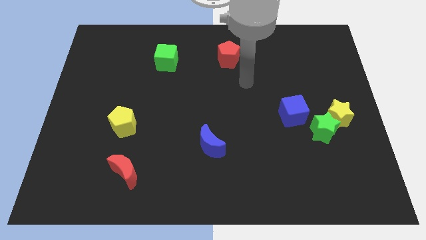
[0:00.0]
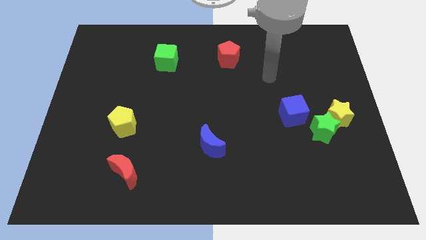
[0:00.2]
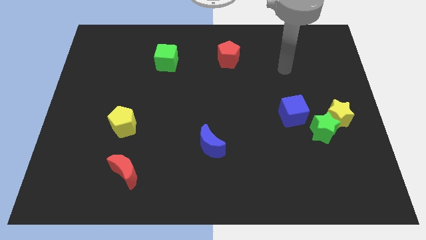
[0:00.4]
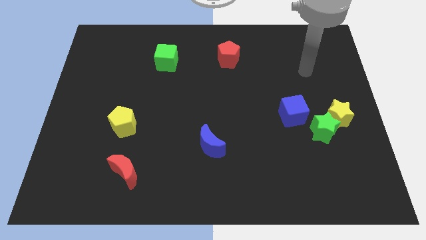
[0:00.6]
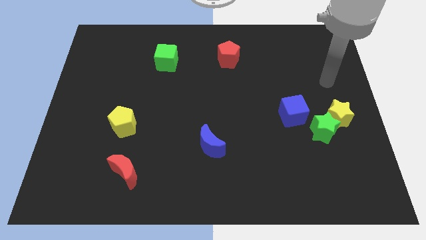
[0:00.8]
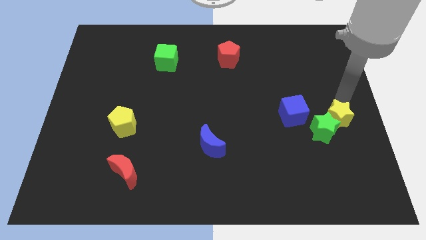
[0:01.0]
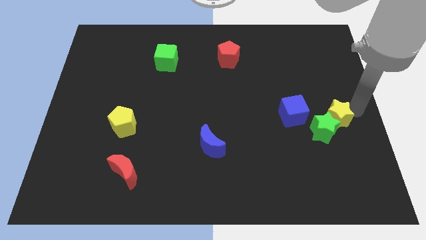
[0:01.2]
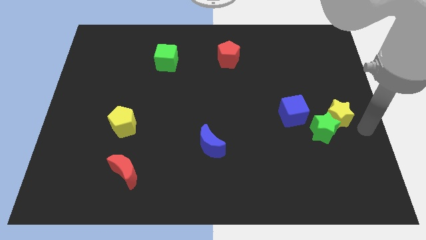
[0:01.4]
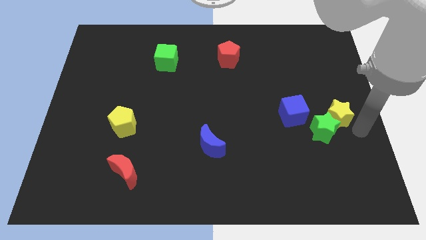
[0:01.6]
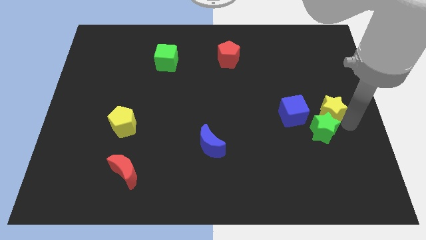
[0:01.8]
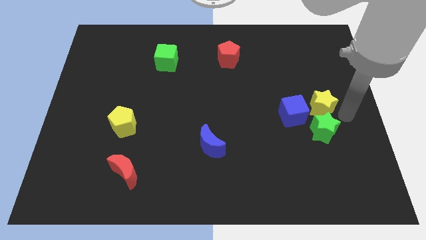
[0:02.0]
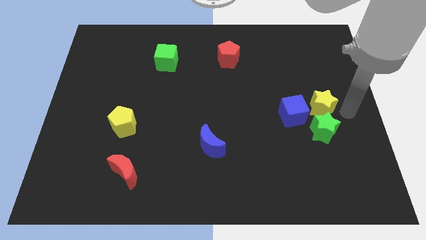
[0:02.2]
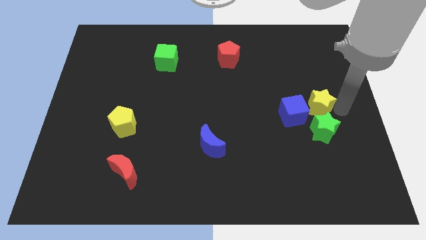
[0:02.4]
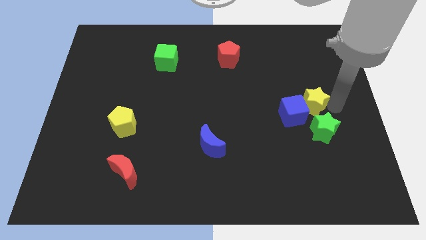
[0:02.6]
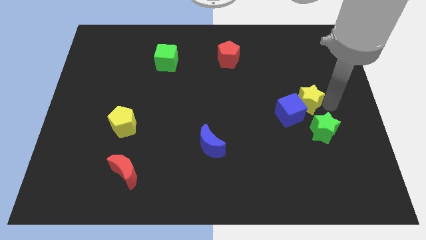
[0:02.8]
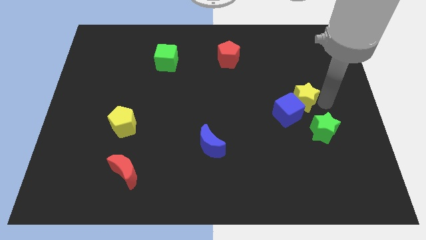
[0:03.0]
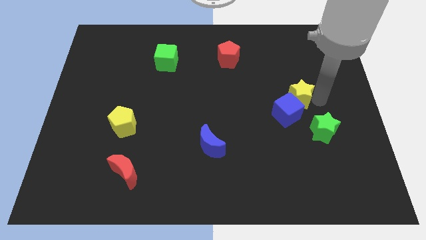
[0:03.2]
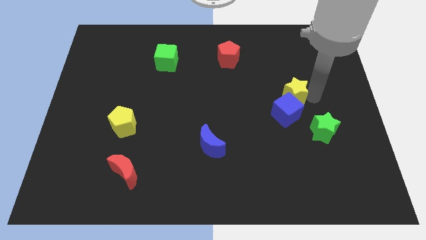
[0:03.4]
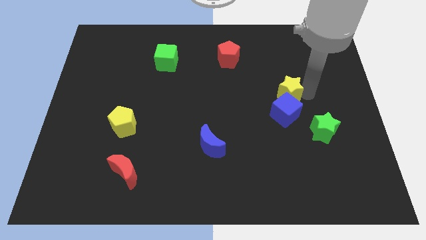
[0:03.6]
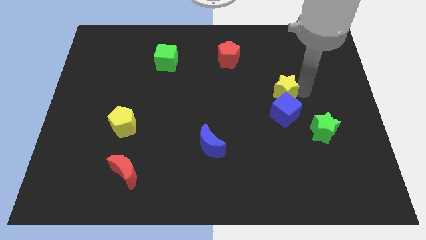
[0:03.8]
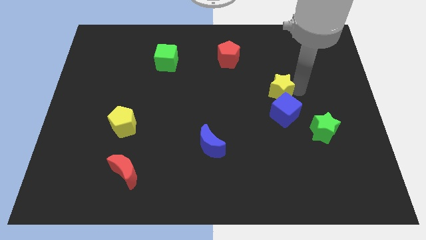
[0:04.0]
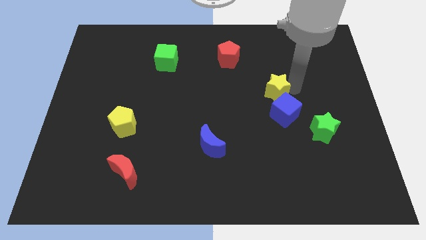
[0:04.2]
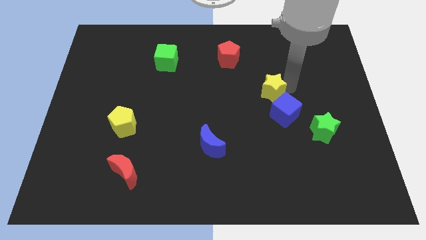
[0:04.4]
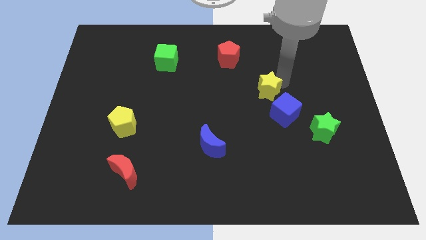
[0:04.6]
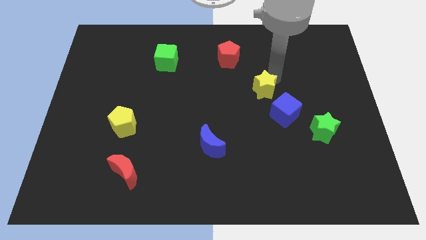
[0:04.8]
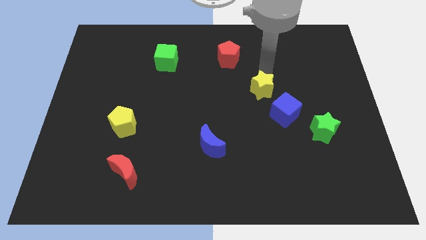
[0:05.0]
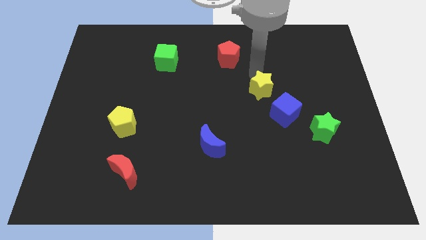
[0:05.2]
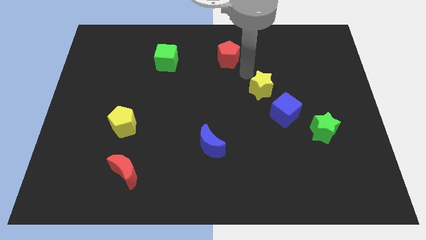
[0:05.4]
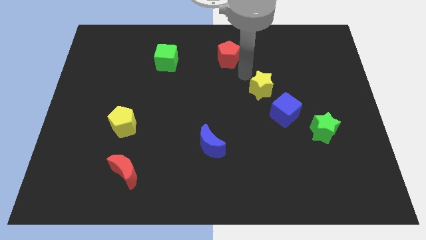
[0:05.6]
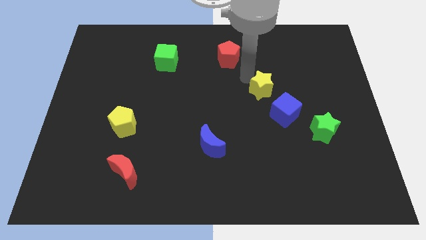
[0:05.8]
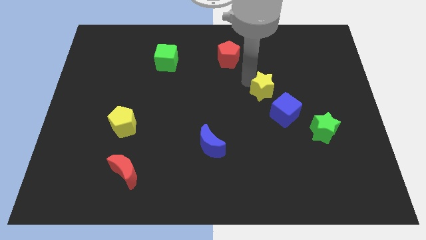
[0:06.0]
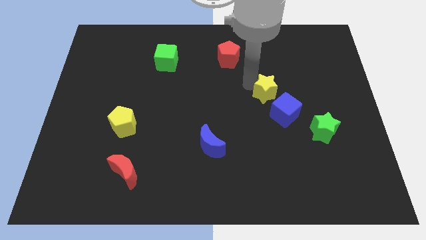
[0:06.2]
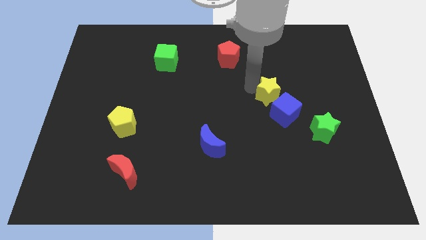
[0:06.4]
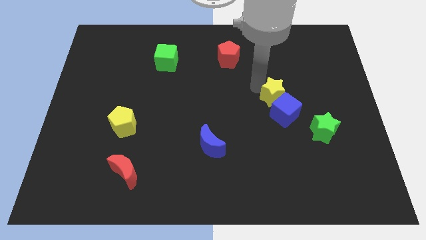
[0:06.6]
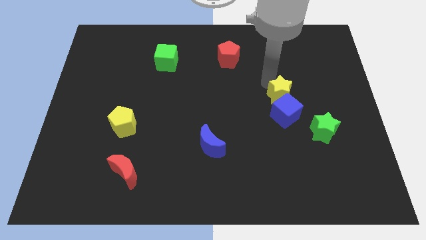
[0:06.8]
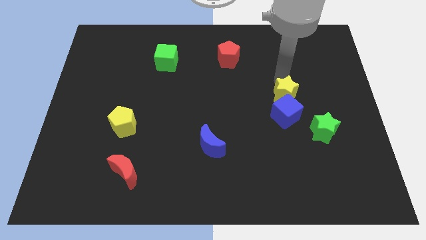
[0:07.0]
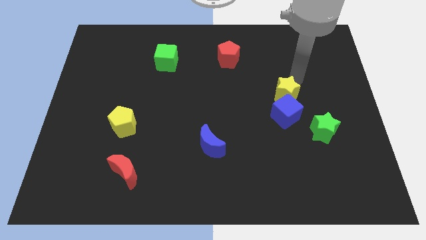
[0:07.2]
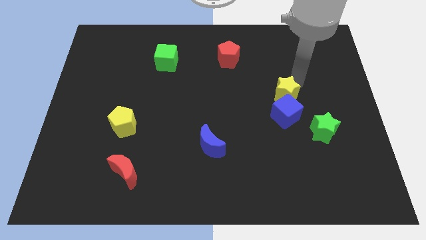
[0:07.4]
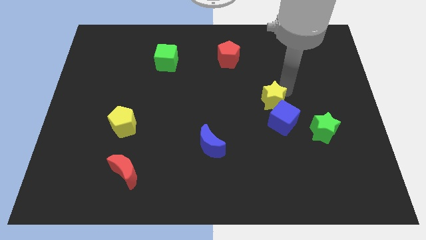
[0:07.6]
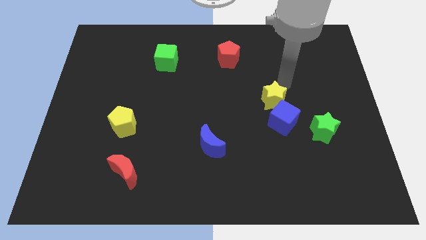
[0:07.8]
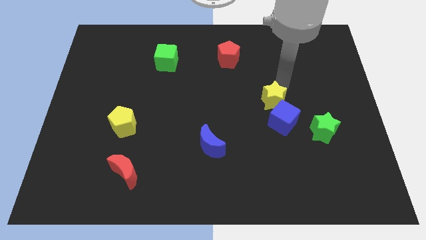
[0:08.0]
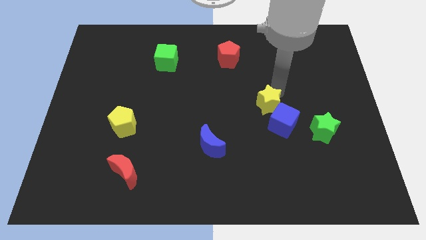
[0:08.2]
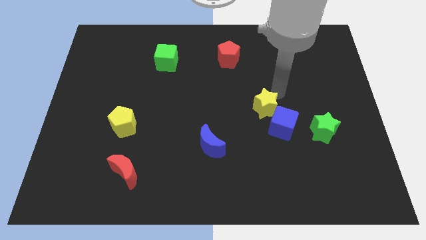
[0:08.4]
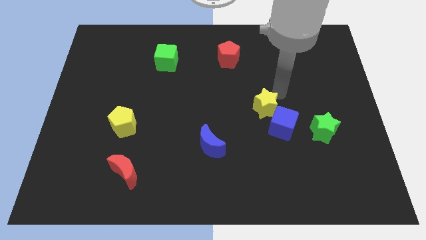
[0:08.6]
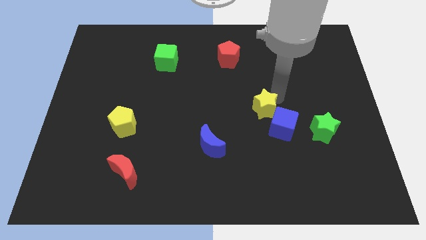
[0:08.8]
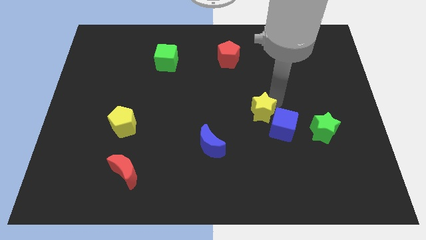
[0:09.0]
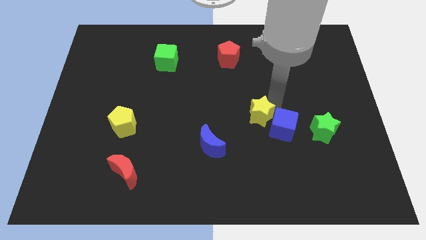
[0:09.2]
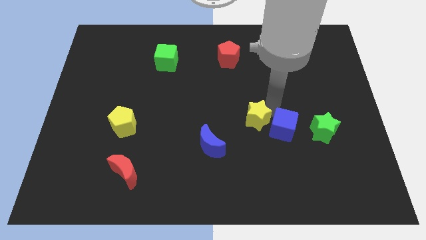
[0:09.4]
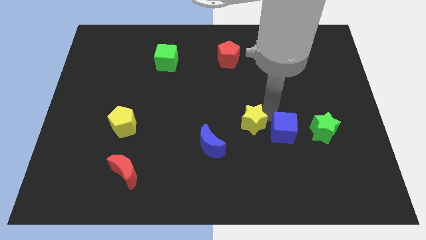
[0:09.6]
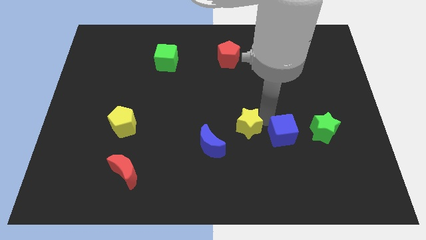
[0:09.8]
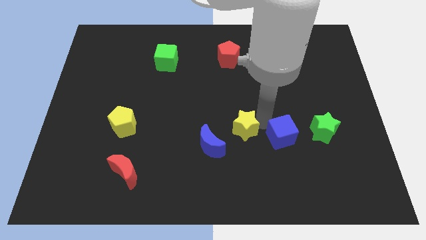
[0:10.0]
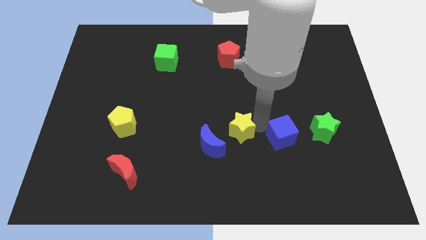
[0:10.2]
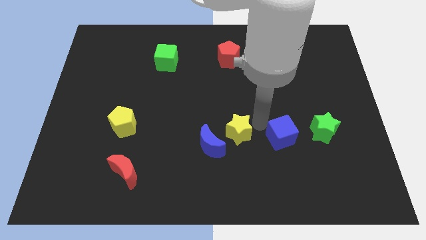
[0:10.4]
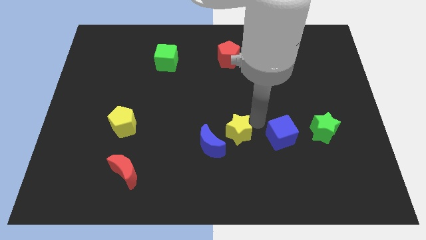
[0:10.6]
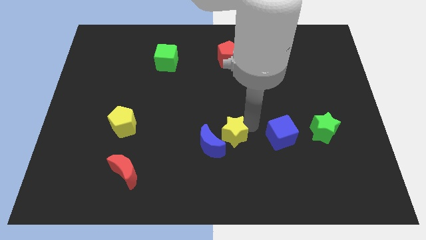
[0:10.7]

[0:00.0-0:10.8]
slide the yellow star towards the blue moon

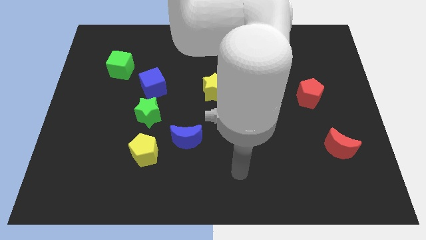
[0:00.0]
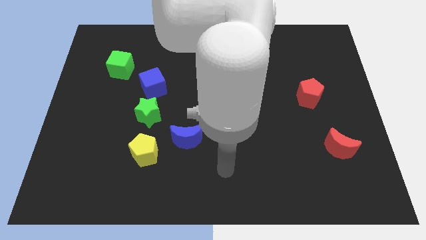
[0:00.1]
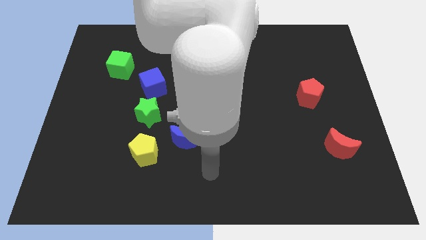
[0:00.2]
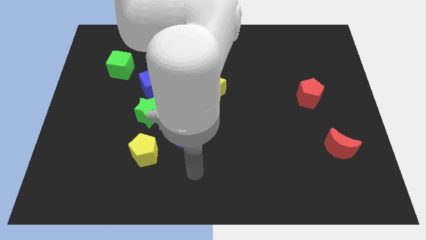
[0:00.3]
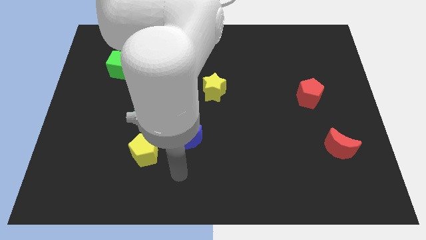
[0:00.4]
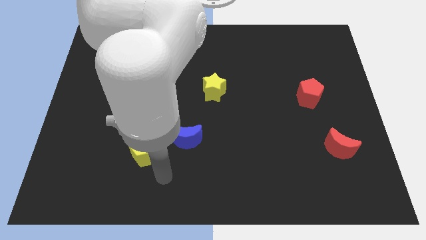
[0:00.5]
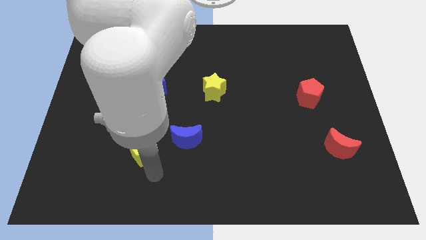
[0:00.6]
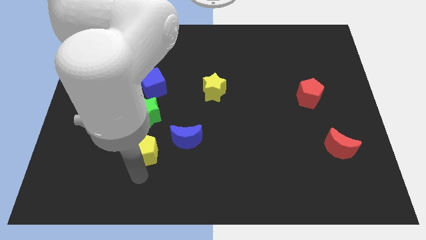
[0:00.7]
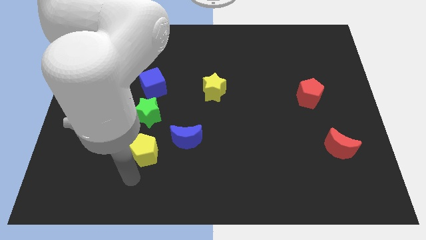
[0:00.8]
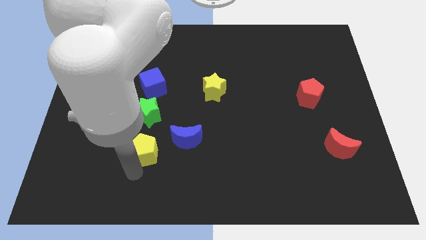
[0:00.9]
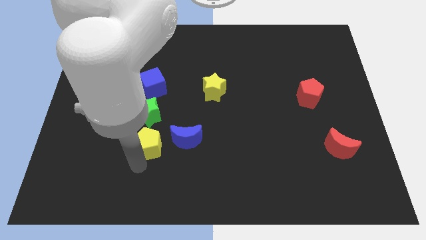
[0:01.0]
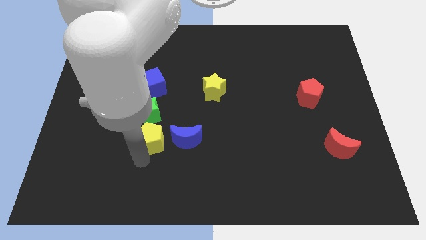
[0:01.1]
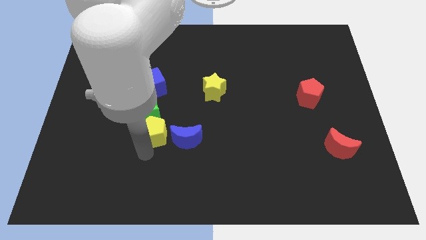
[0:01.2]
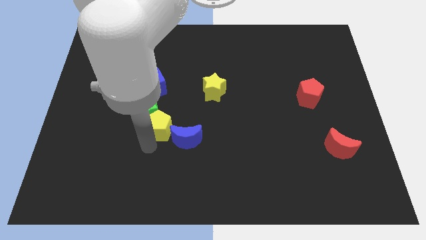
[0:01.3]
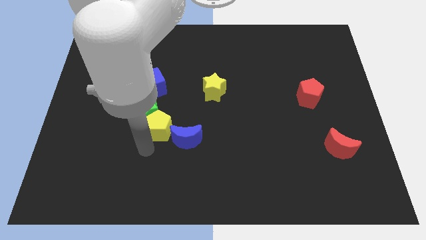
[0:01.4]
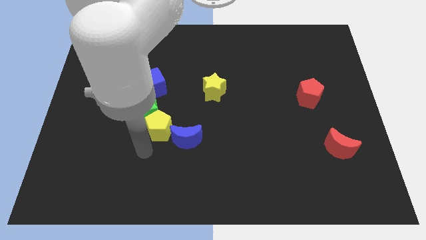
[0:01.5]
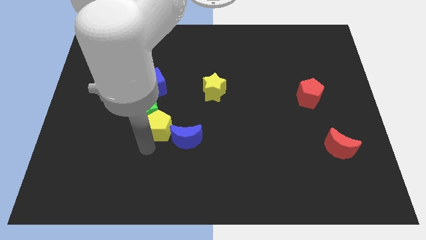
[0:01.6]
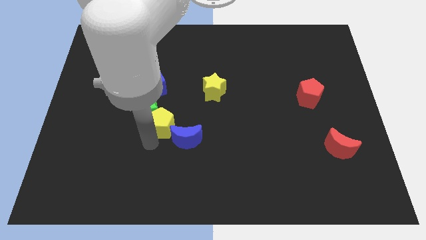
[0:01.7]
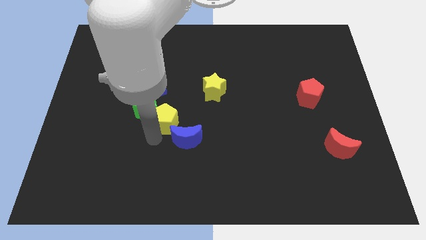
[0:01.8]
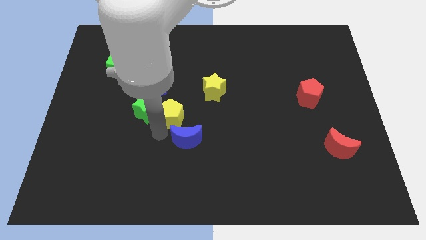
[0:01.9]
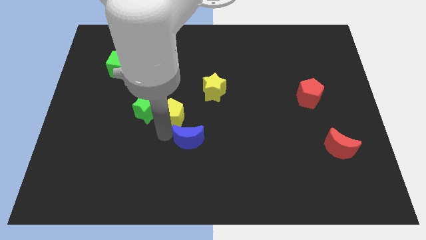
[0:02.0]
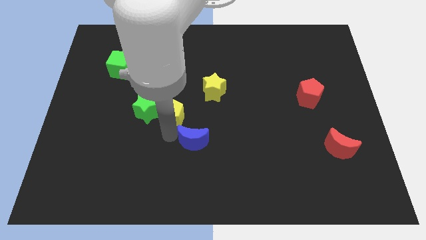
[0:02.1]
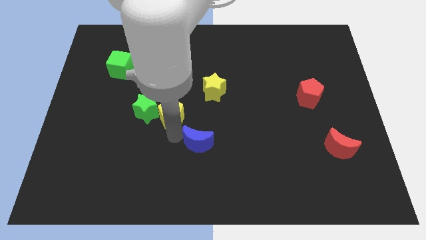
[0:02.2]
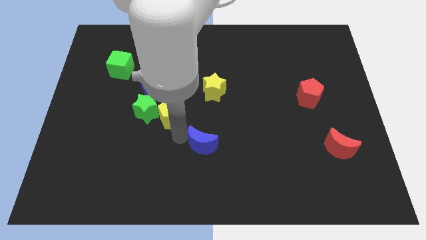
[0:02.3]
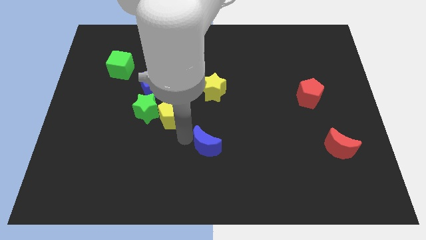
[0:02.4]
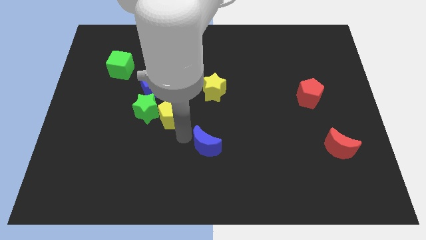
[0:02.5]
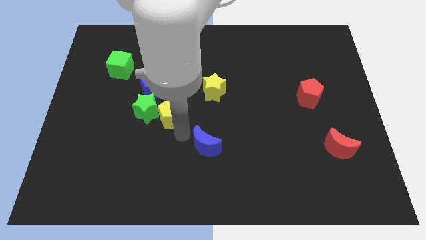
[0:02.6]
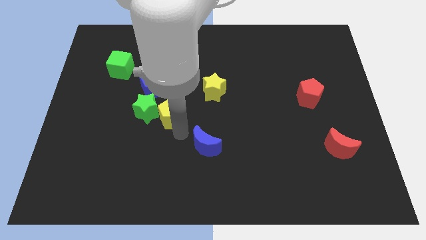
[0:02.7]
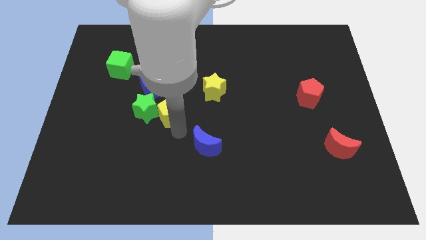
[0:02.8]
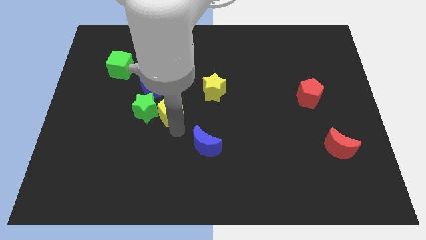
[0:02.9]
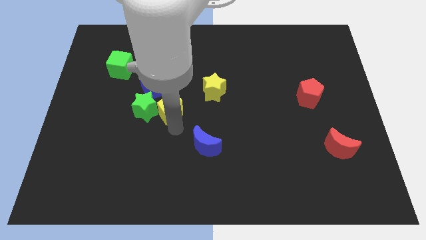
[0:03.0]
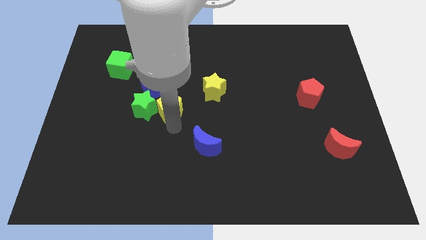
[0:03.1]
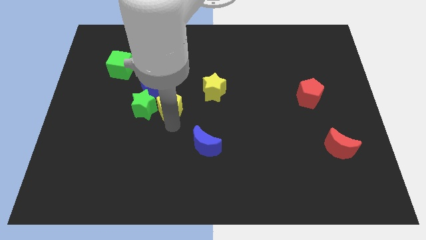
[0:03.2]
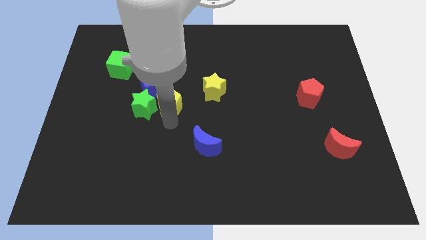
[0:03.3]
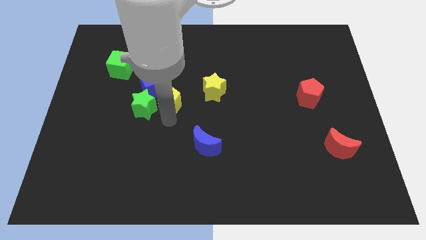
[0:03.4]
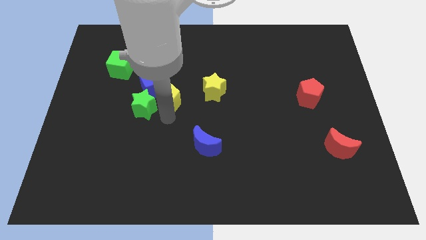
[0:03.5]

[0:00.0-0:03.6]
push the yellow pentagon next to the blue cube
